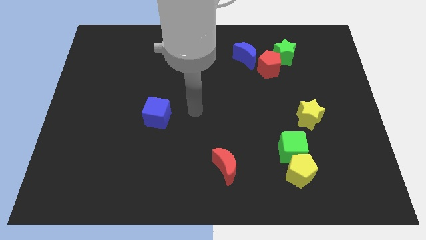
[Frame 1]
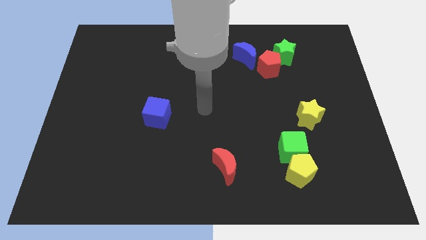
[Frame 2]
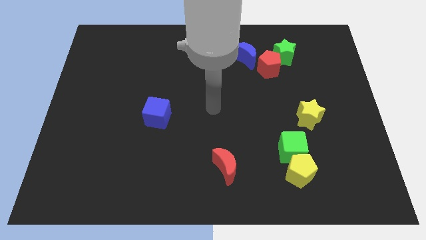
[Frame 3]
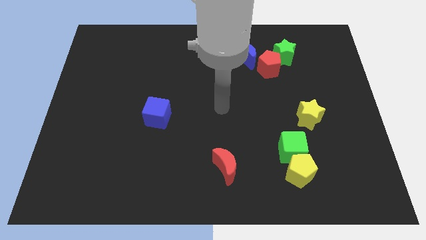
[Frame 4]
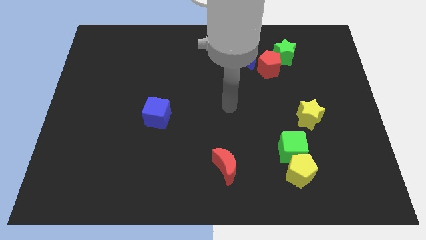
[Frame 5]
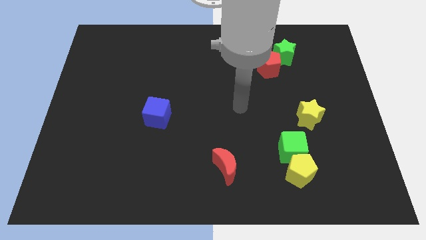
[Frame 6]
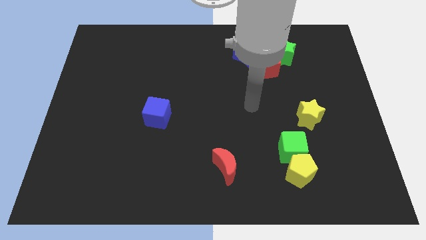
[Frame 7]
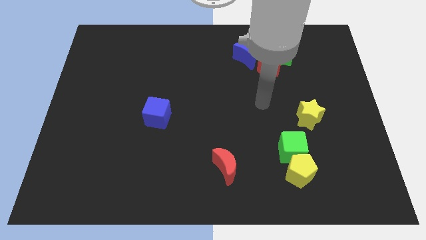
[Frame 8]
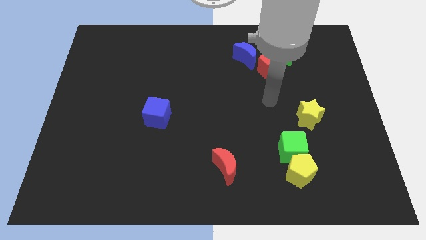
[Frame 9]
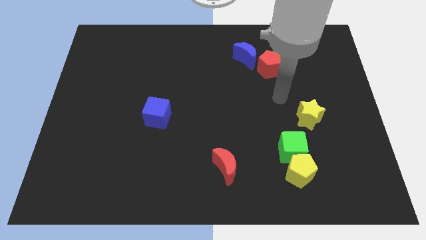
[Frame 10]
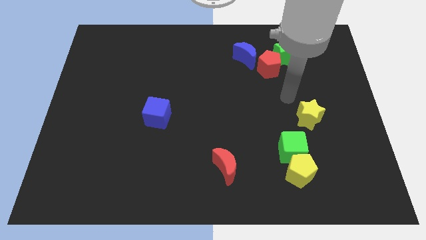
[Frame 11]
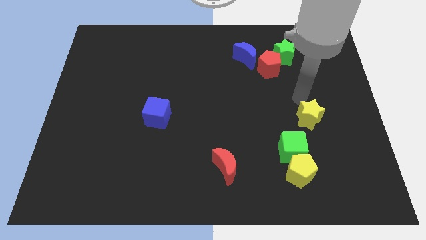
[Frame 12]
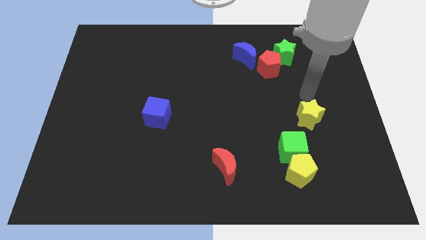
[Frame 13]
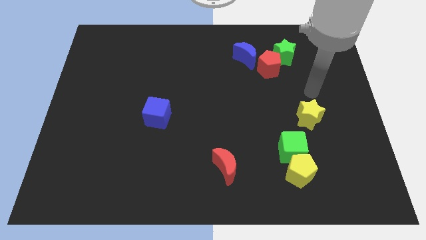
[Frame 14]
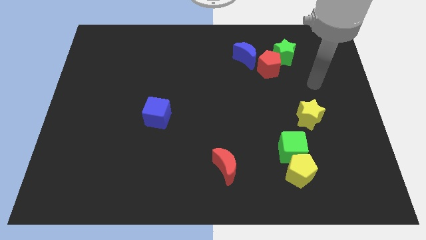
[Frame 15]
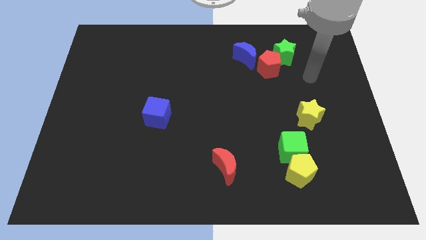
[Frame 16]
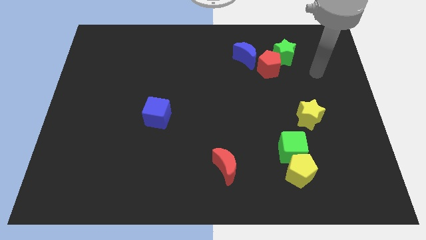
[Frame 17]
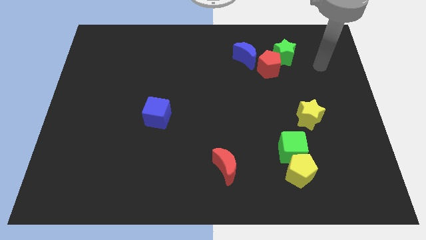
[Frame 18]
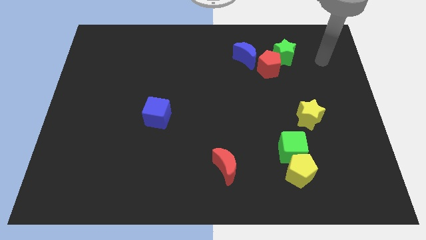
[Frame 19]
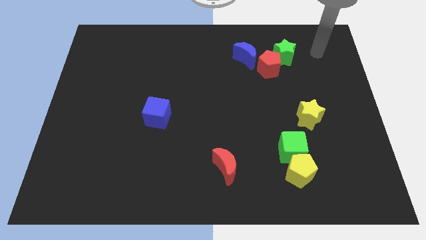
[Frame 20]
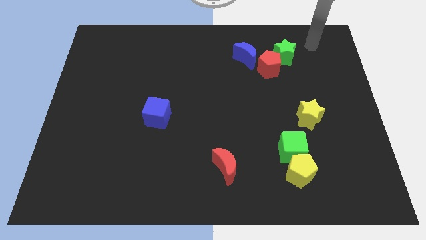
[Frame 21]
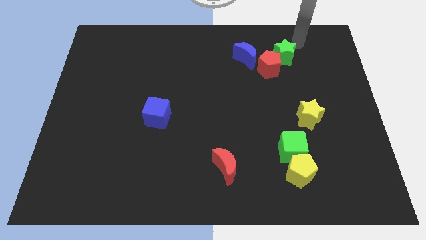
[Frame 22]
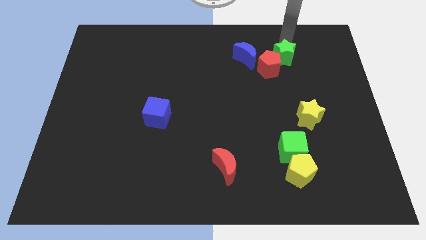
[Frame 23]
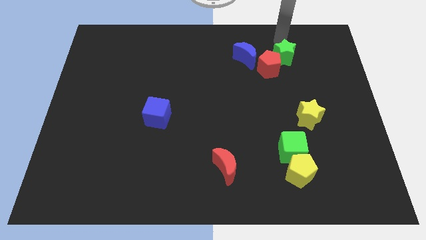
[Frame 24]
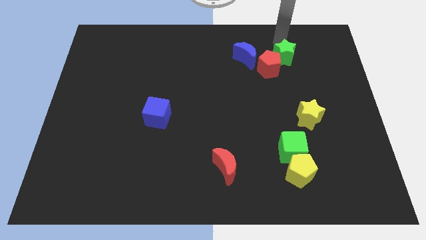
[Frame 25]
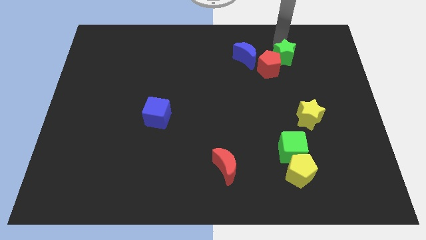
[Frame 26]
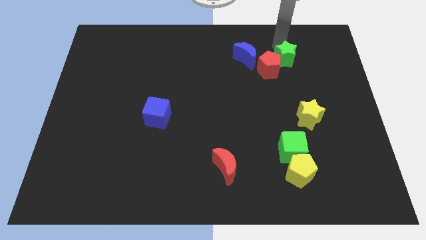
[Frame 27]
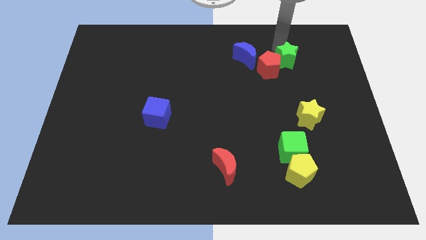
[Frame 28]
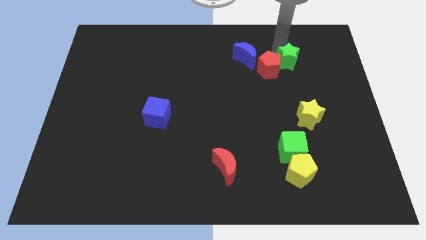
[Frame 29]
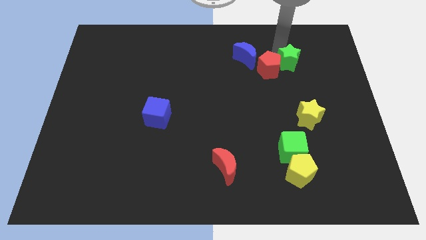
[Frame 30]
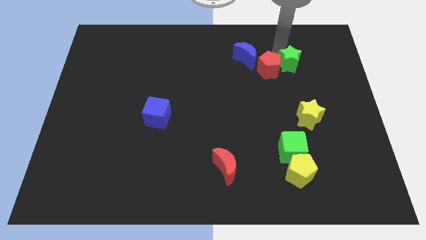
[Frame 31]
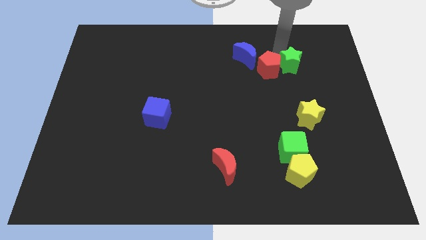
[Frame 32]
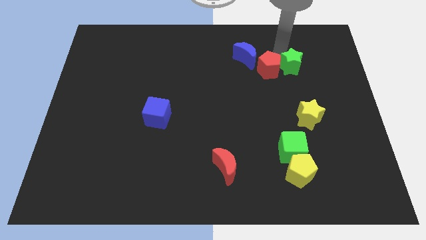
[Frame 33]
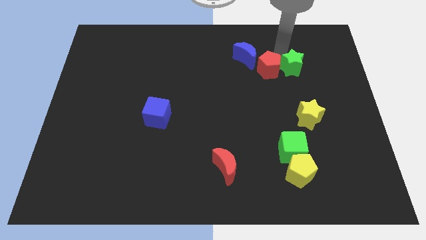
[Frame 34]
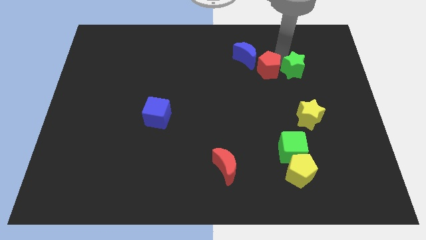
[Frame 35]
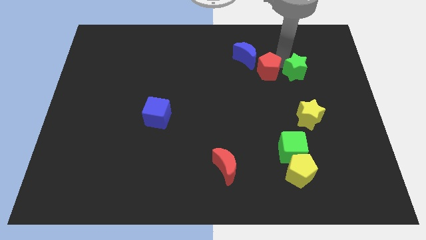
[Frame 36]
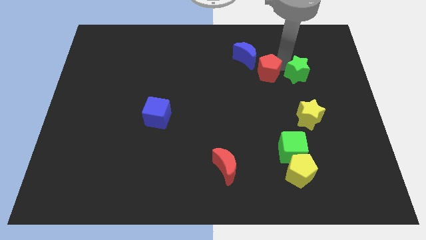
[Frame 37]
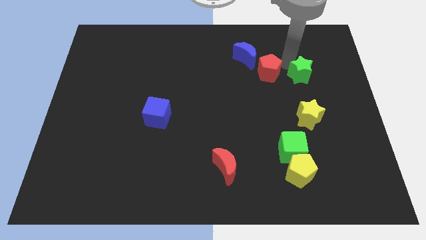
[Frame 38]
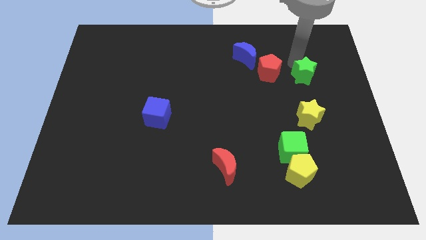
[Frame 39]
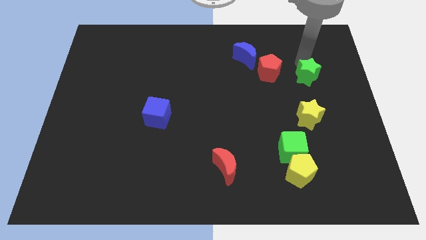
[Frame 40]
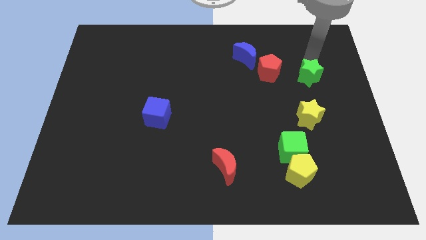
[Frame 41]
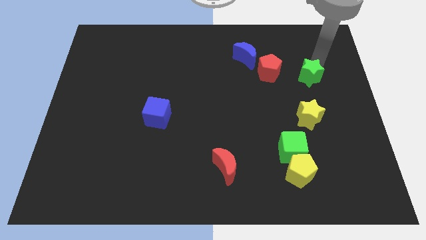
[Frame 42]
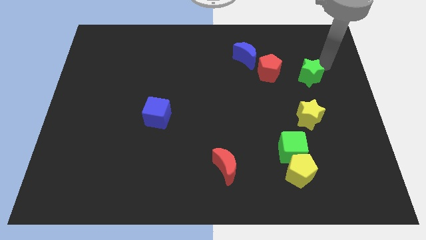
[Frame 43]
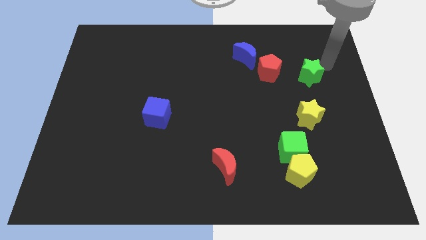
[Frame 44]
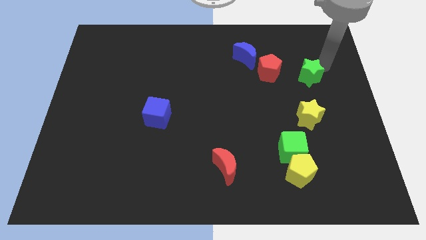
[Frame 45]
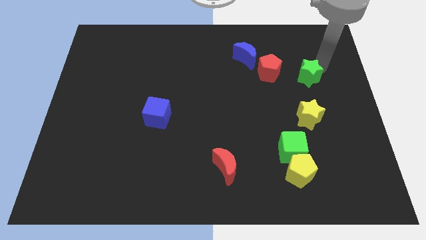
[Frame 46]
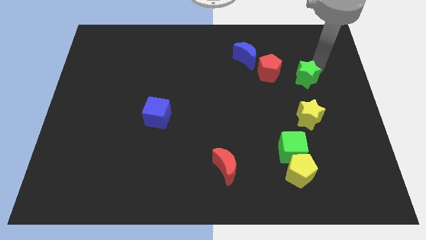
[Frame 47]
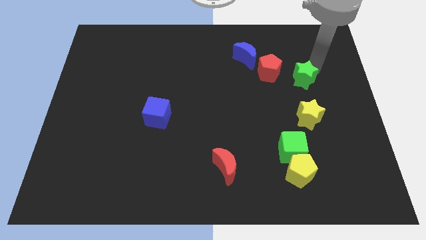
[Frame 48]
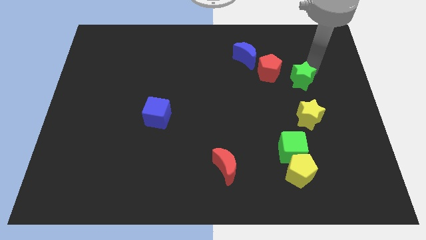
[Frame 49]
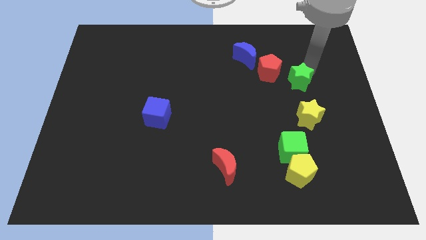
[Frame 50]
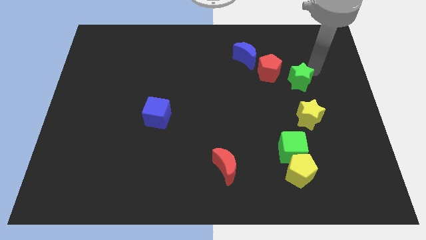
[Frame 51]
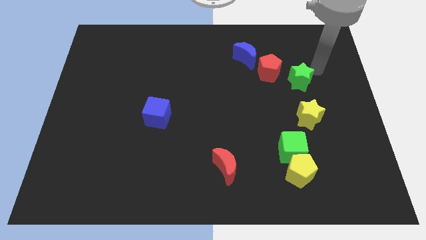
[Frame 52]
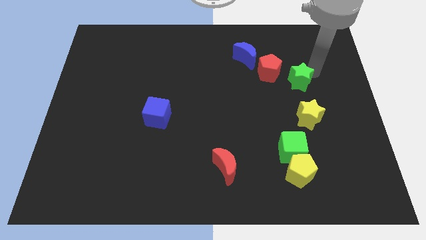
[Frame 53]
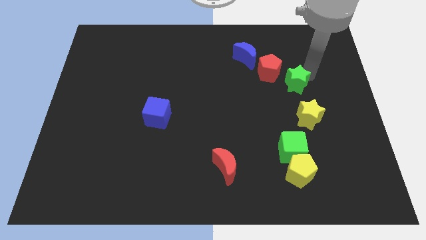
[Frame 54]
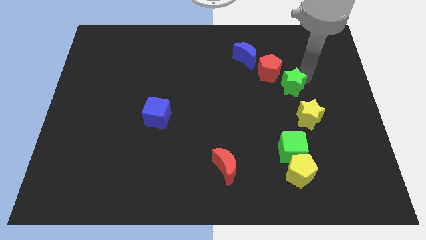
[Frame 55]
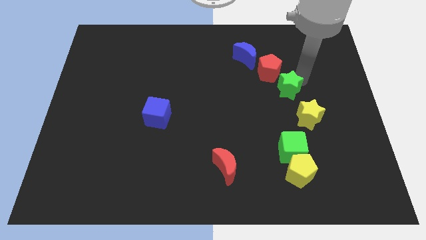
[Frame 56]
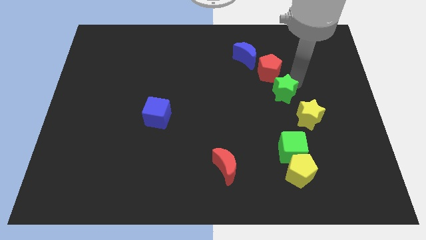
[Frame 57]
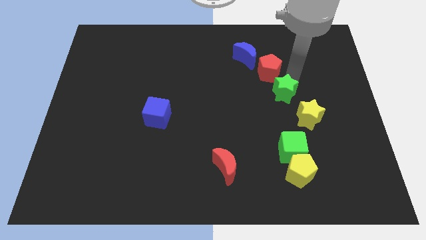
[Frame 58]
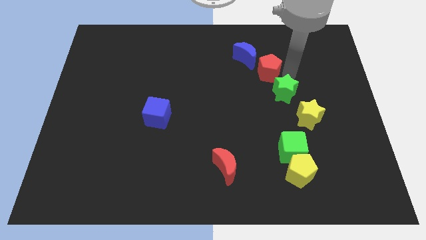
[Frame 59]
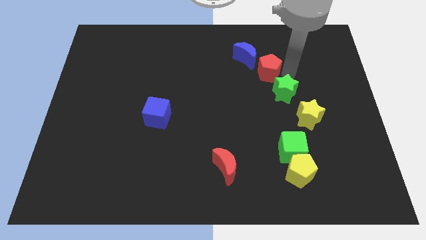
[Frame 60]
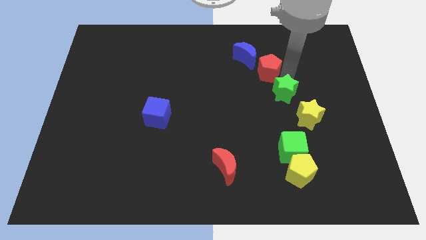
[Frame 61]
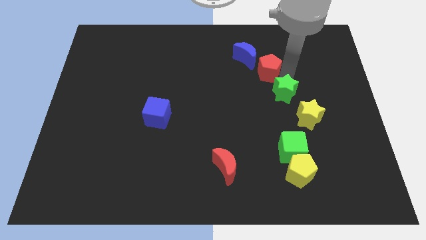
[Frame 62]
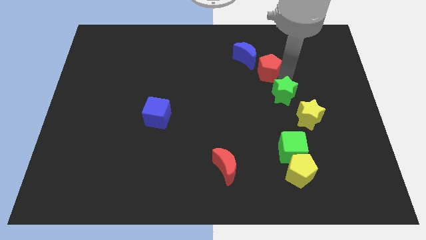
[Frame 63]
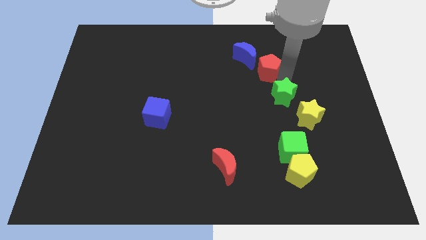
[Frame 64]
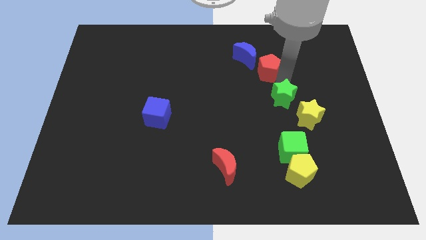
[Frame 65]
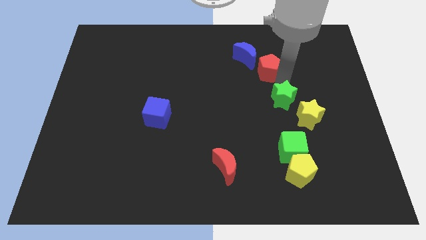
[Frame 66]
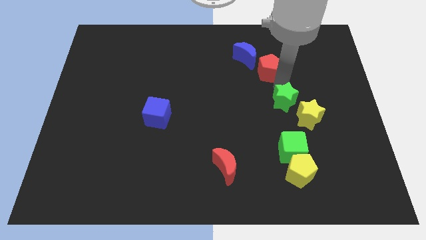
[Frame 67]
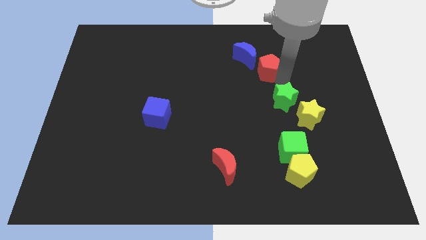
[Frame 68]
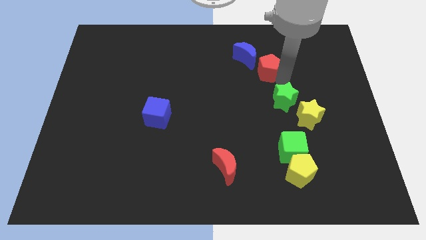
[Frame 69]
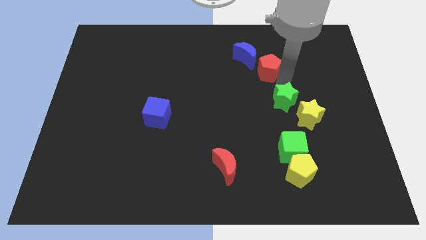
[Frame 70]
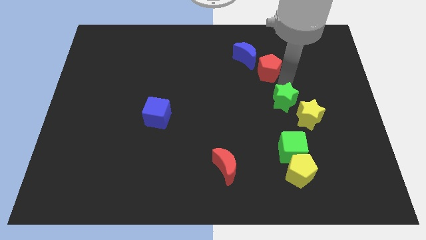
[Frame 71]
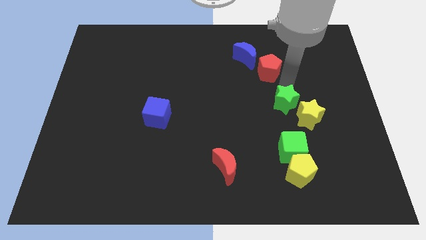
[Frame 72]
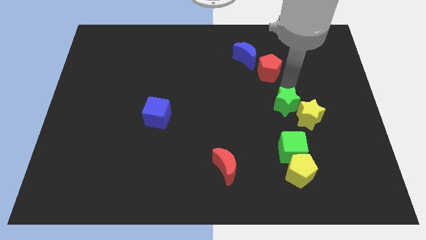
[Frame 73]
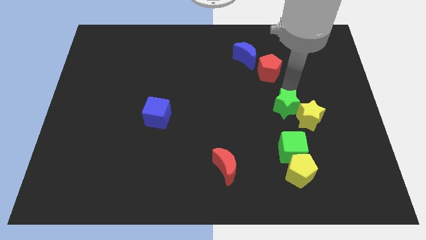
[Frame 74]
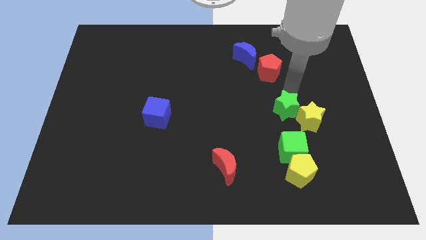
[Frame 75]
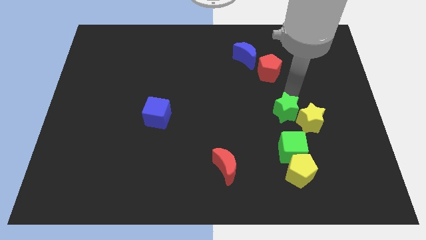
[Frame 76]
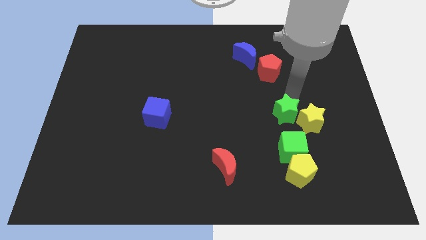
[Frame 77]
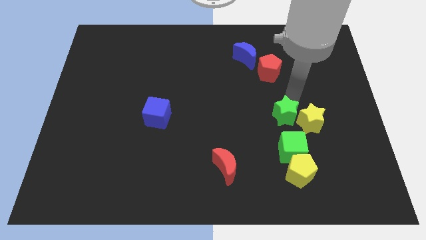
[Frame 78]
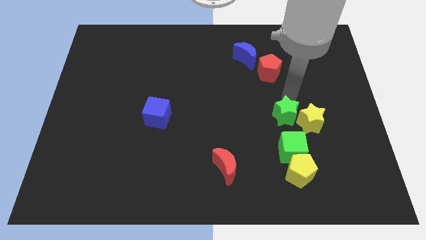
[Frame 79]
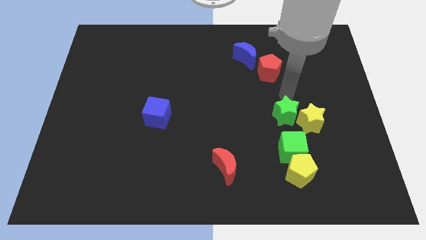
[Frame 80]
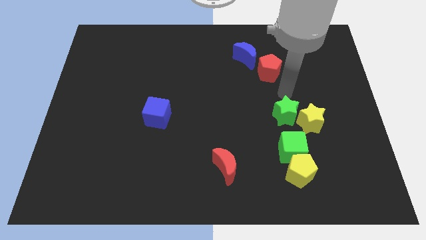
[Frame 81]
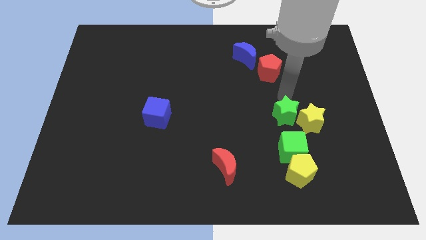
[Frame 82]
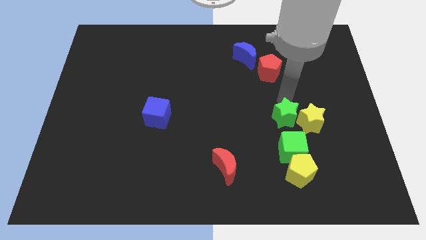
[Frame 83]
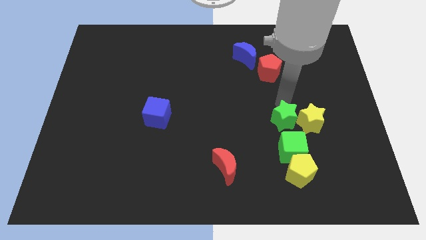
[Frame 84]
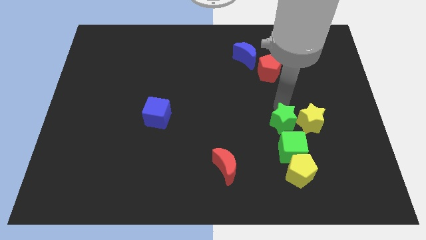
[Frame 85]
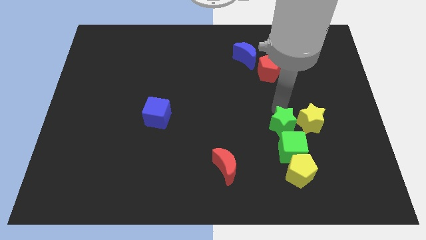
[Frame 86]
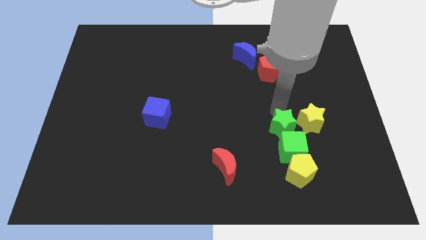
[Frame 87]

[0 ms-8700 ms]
put the green star next to the green cube
